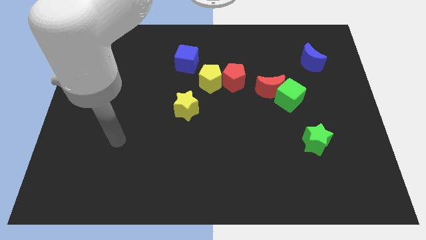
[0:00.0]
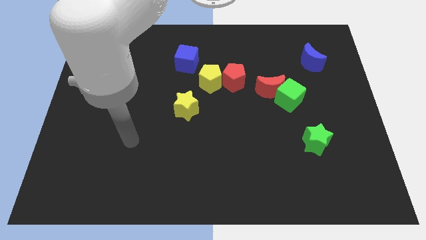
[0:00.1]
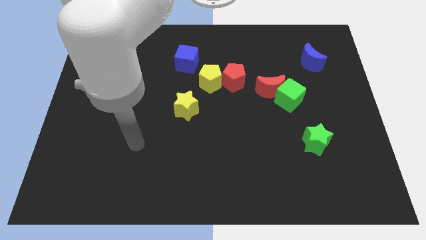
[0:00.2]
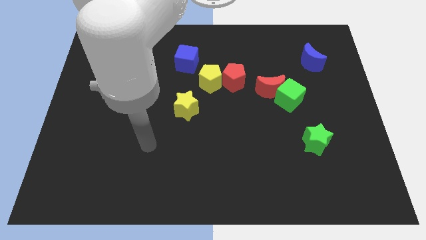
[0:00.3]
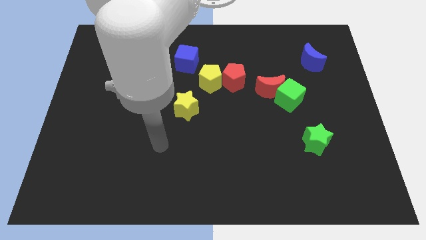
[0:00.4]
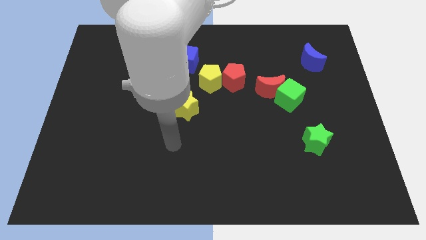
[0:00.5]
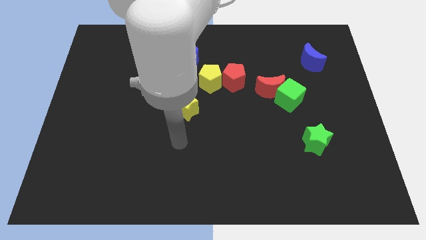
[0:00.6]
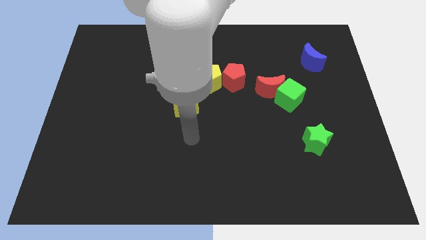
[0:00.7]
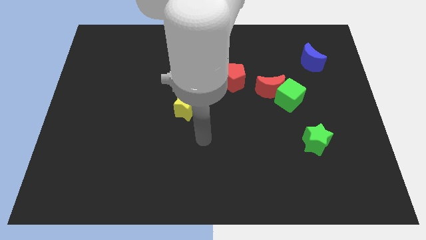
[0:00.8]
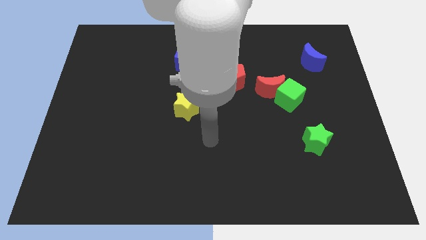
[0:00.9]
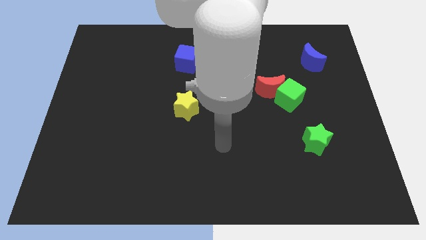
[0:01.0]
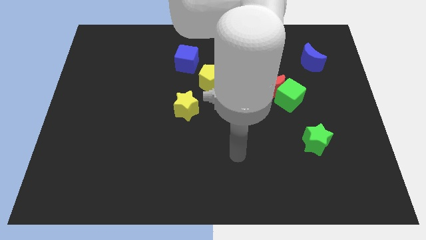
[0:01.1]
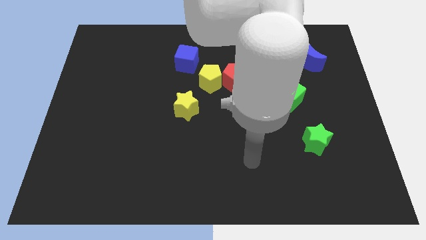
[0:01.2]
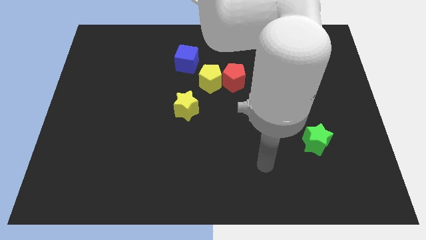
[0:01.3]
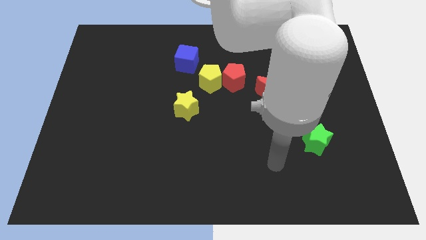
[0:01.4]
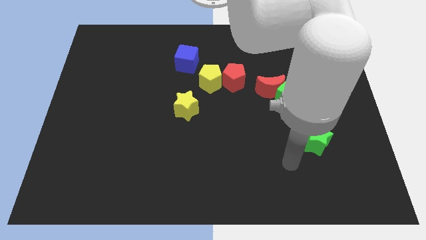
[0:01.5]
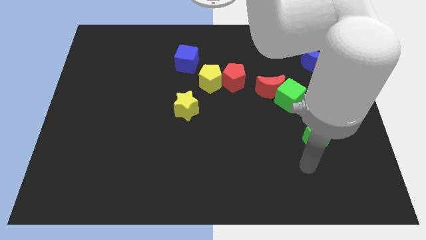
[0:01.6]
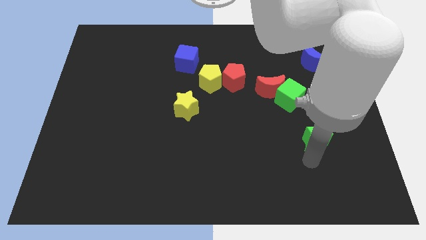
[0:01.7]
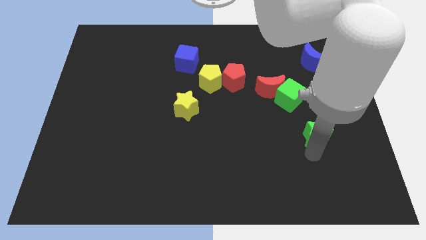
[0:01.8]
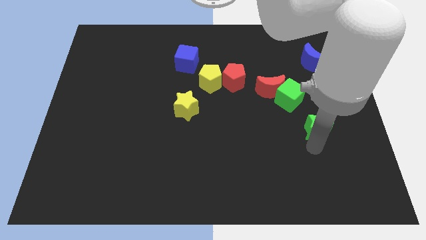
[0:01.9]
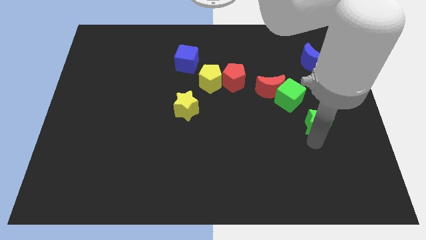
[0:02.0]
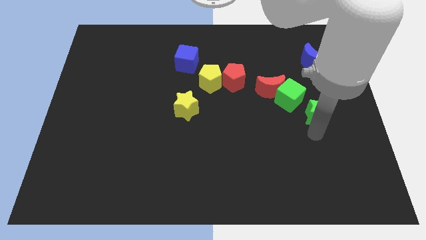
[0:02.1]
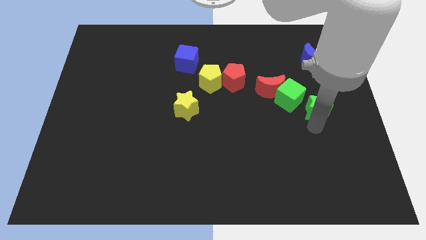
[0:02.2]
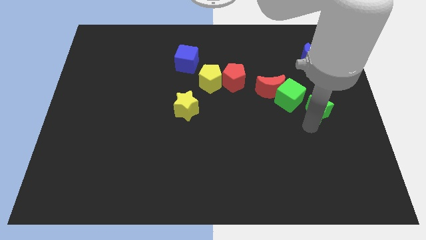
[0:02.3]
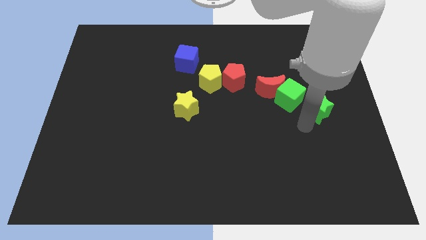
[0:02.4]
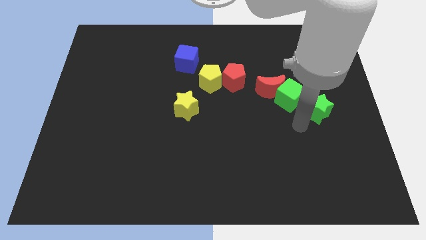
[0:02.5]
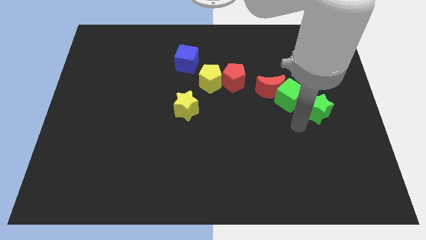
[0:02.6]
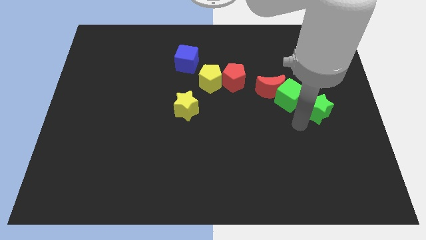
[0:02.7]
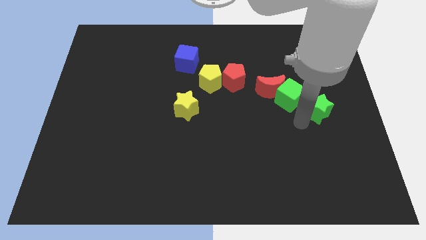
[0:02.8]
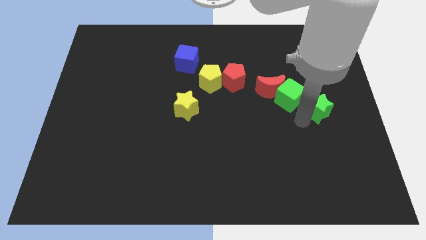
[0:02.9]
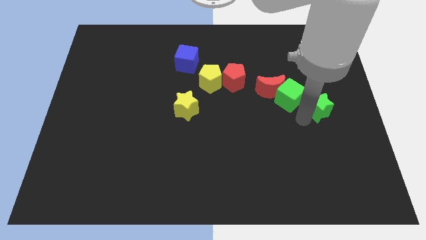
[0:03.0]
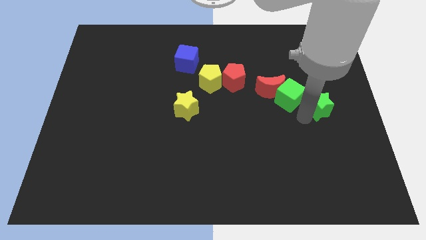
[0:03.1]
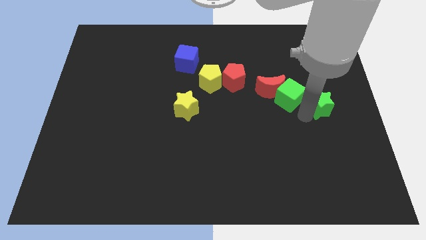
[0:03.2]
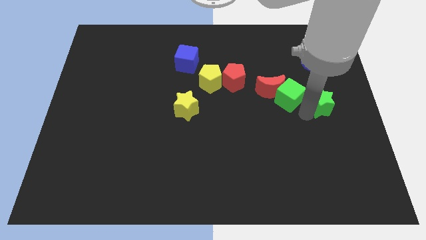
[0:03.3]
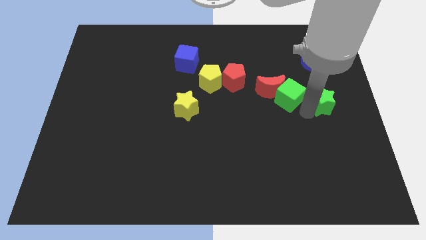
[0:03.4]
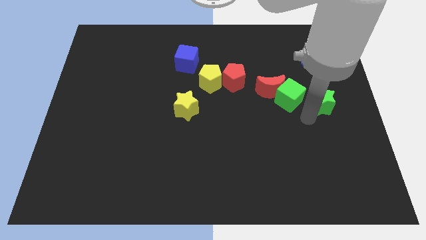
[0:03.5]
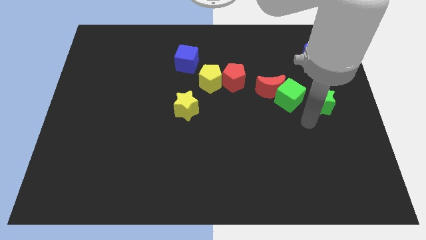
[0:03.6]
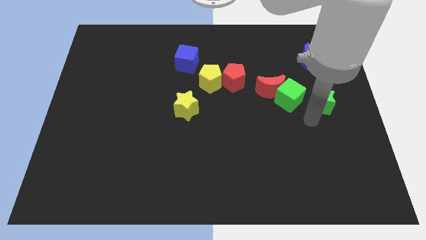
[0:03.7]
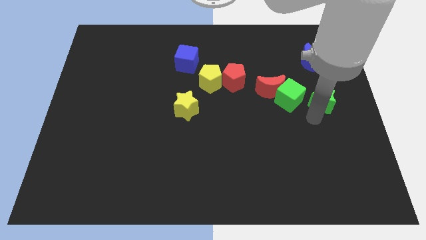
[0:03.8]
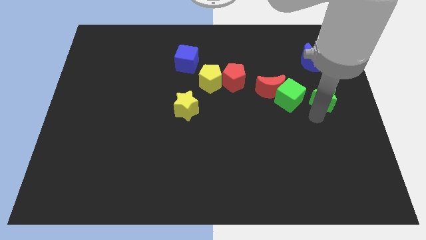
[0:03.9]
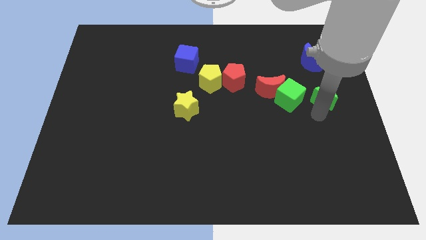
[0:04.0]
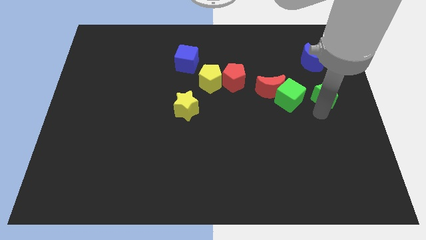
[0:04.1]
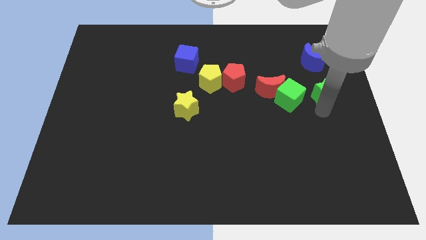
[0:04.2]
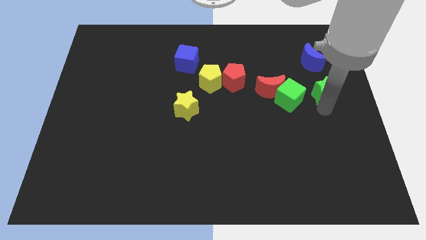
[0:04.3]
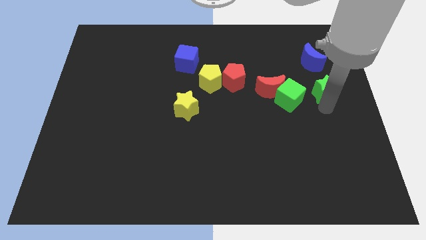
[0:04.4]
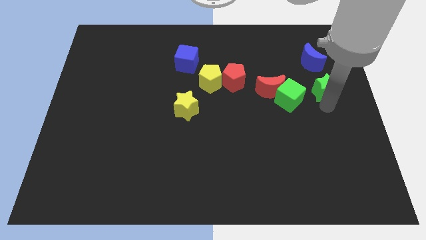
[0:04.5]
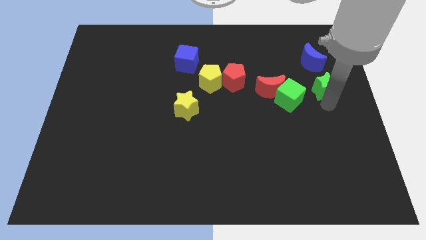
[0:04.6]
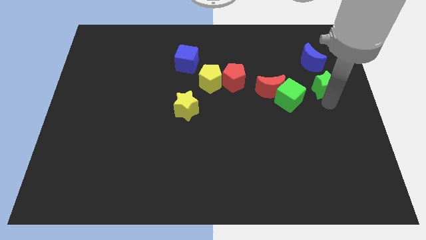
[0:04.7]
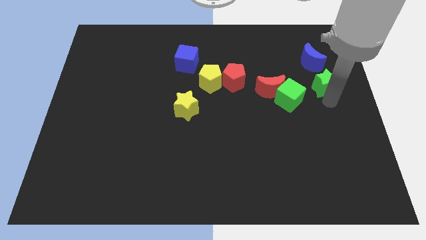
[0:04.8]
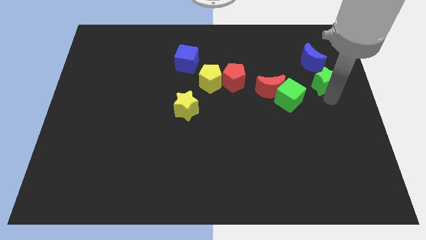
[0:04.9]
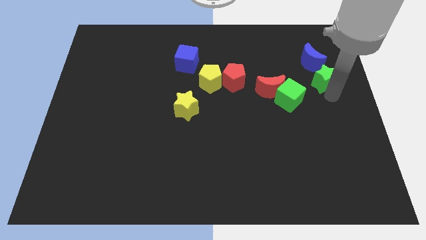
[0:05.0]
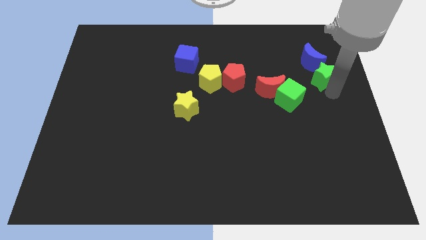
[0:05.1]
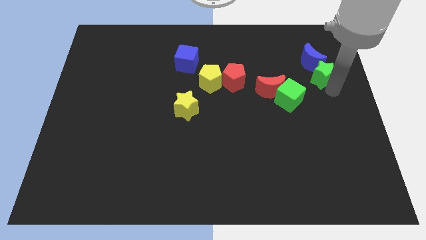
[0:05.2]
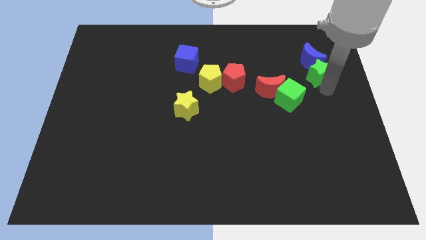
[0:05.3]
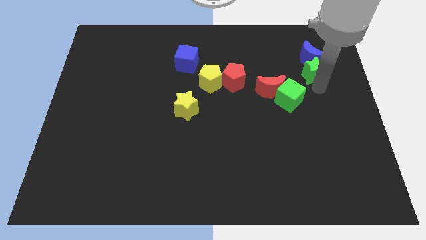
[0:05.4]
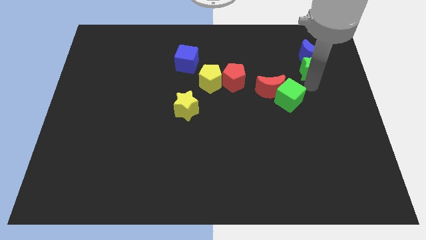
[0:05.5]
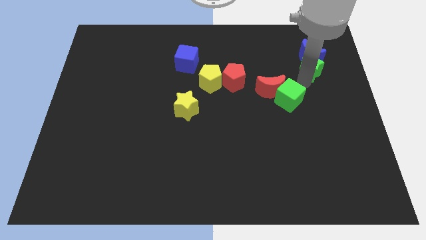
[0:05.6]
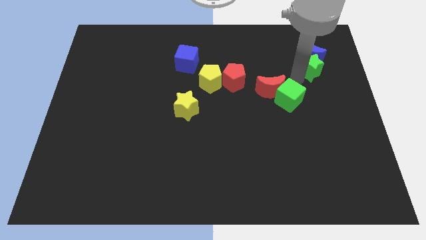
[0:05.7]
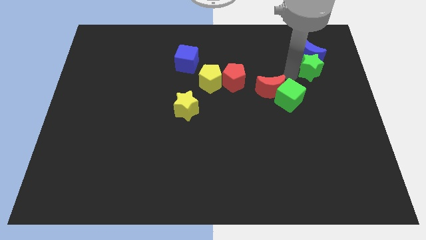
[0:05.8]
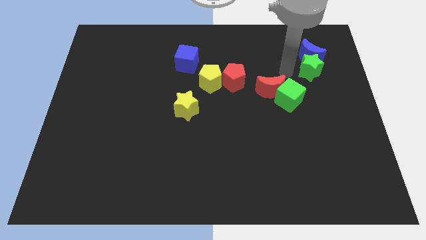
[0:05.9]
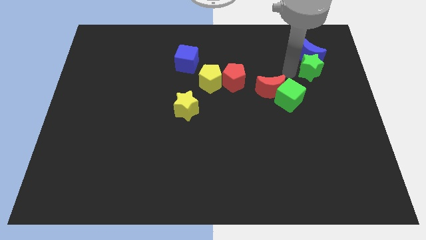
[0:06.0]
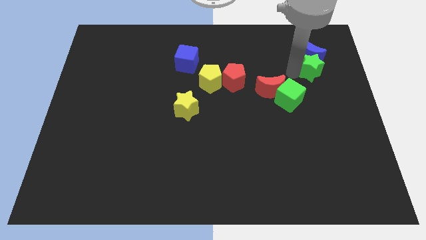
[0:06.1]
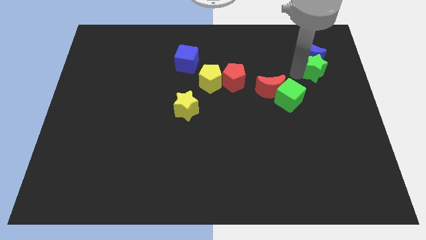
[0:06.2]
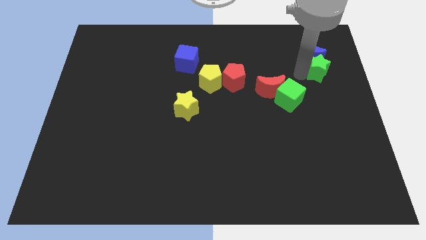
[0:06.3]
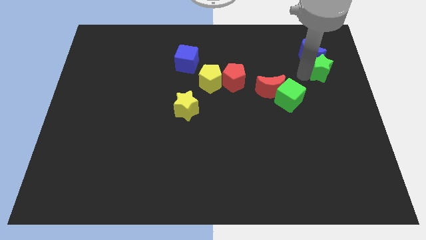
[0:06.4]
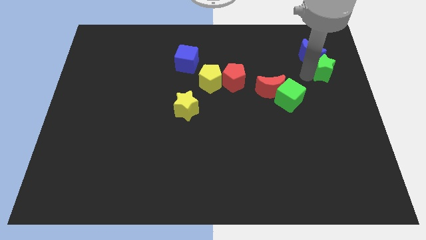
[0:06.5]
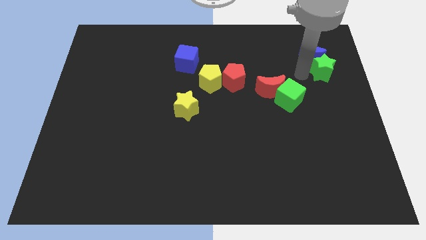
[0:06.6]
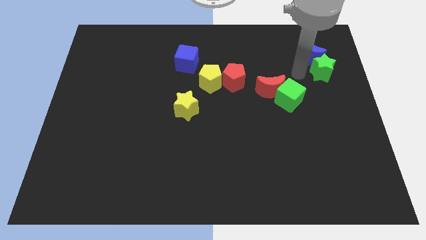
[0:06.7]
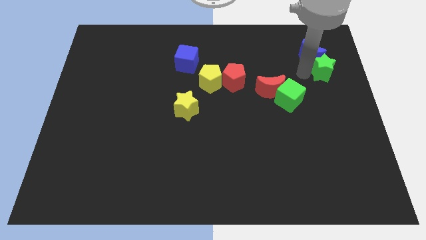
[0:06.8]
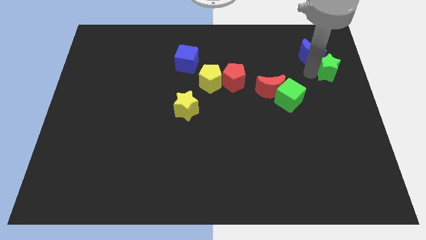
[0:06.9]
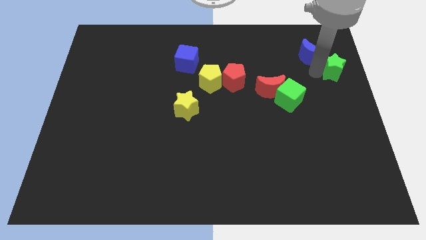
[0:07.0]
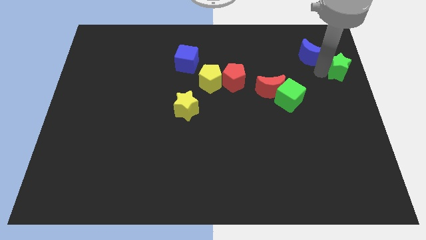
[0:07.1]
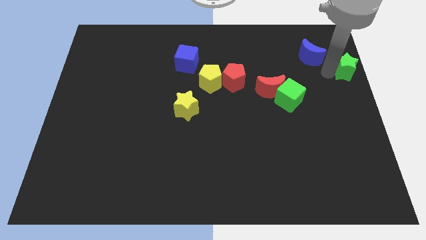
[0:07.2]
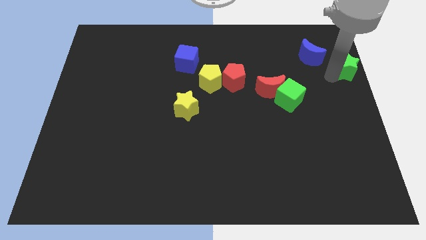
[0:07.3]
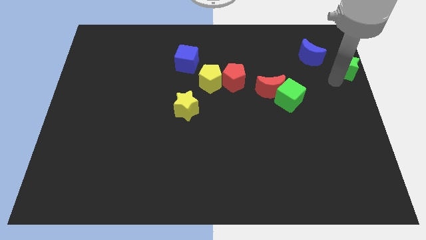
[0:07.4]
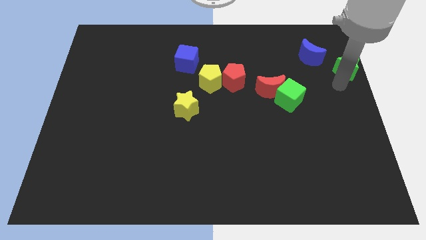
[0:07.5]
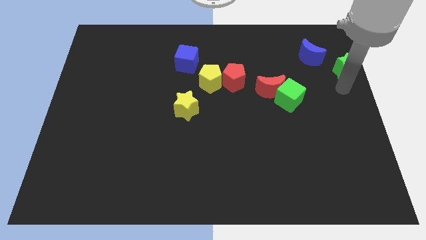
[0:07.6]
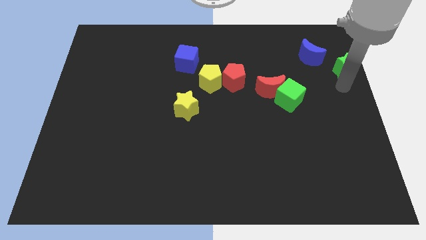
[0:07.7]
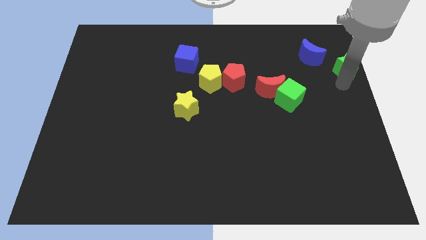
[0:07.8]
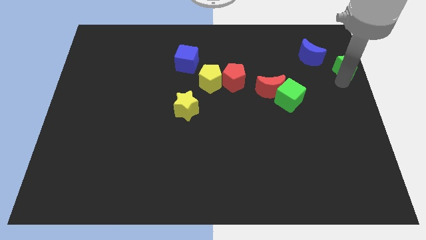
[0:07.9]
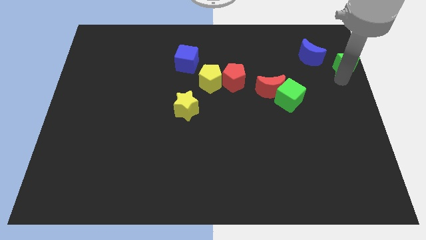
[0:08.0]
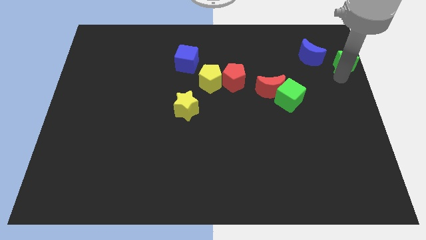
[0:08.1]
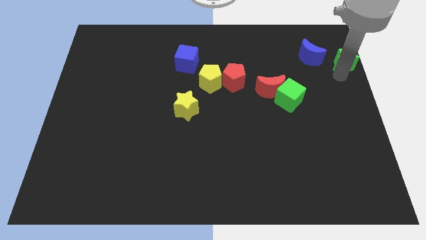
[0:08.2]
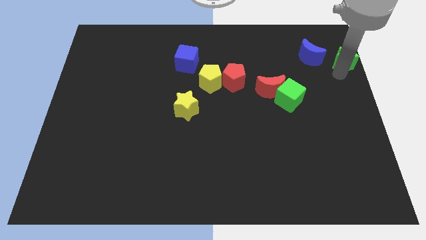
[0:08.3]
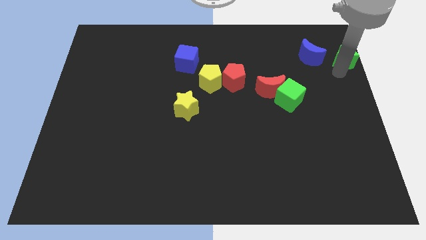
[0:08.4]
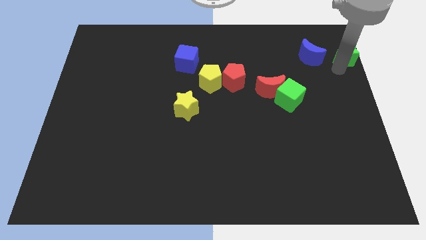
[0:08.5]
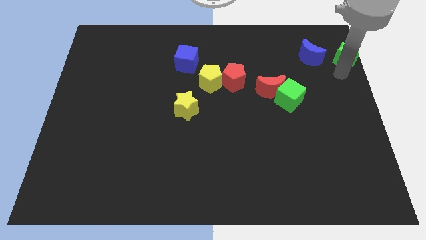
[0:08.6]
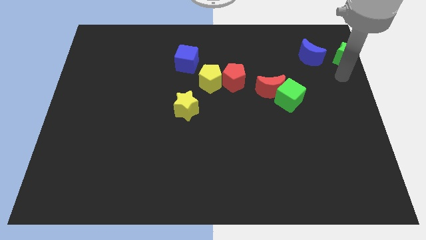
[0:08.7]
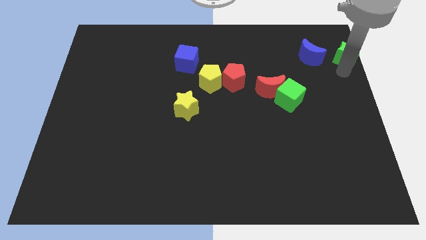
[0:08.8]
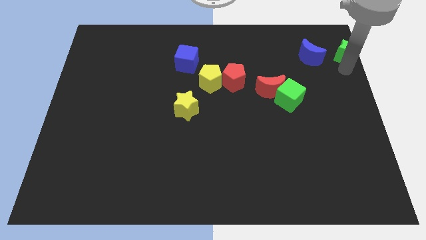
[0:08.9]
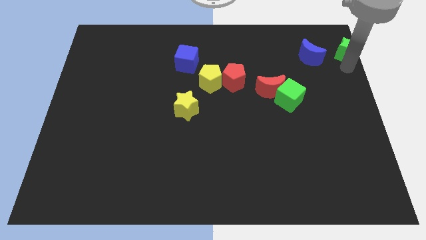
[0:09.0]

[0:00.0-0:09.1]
move the green star to the upper right corner
